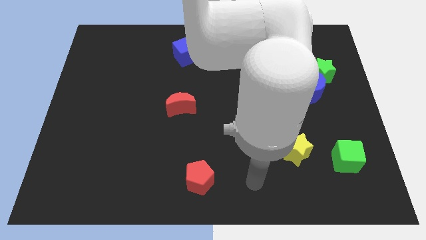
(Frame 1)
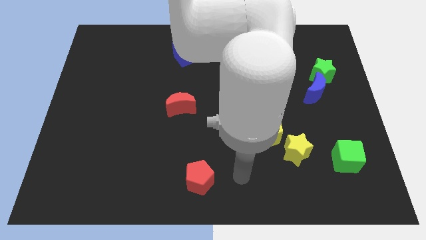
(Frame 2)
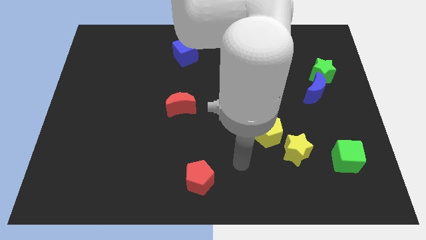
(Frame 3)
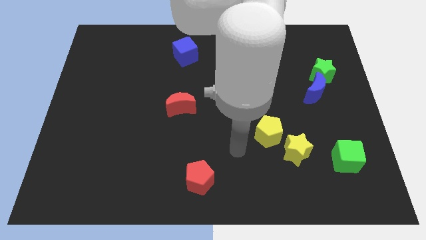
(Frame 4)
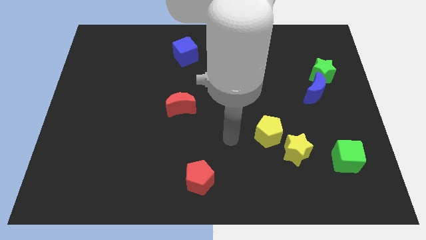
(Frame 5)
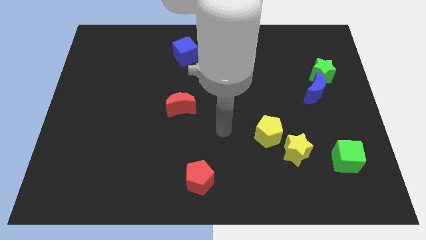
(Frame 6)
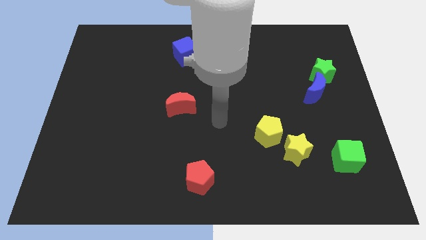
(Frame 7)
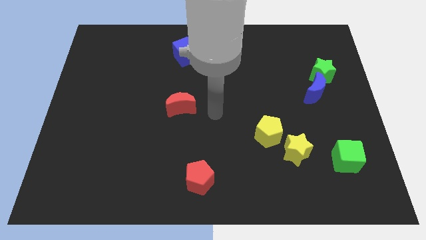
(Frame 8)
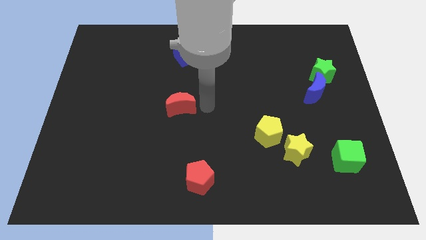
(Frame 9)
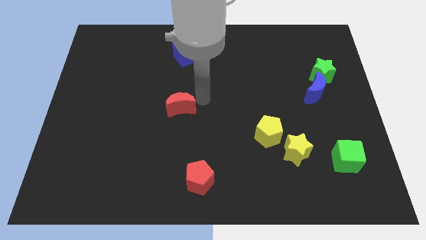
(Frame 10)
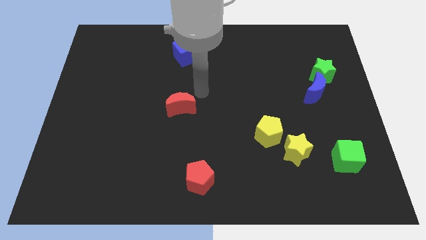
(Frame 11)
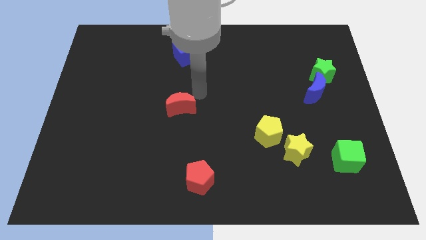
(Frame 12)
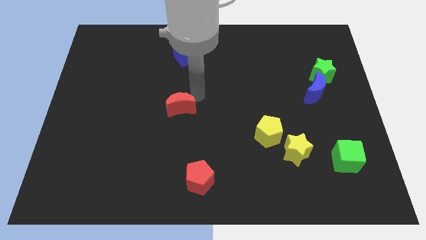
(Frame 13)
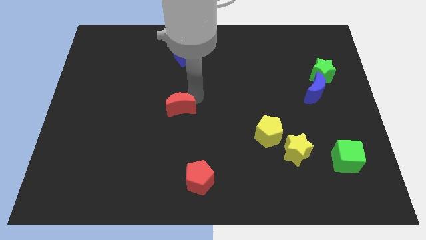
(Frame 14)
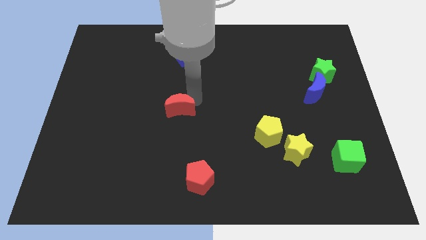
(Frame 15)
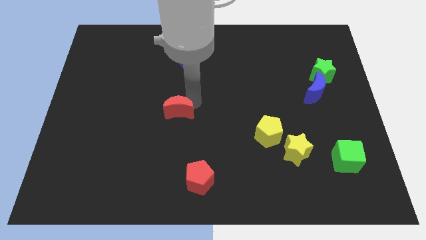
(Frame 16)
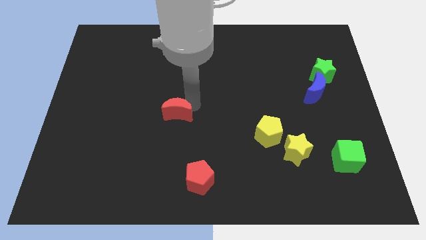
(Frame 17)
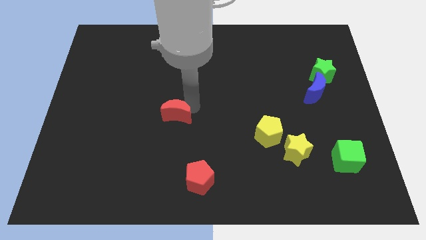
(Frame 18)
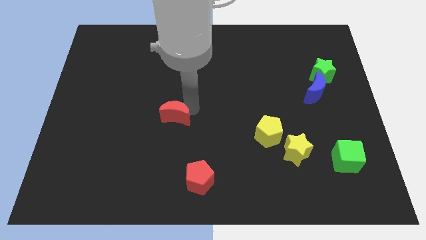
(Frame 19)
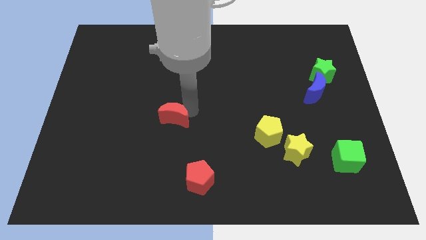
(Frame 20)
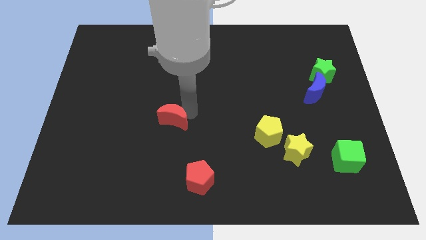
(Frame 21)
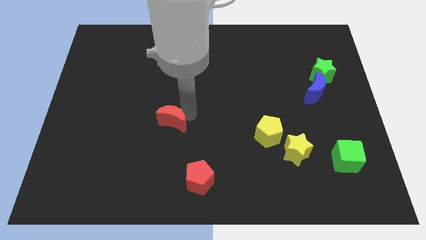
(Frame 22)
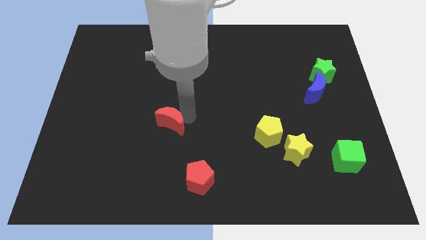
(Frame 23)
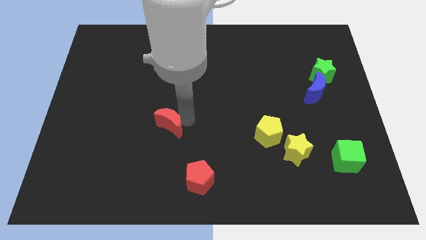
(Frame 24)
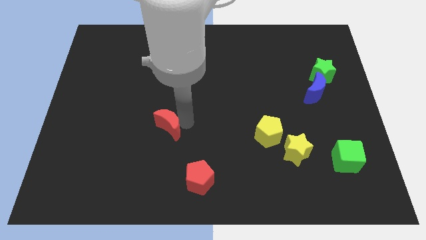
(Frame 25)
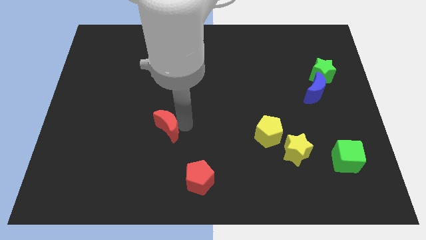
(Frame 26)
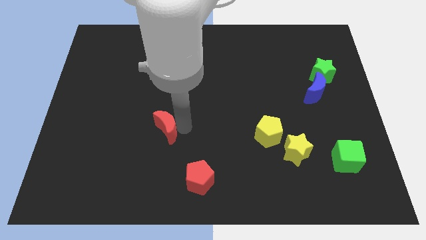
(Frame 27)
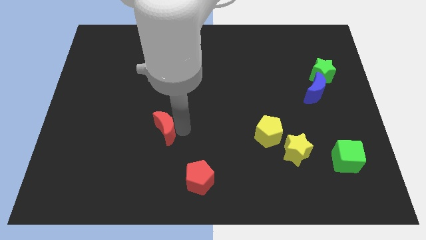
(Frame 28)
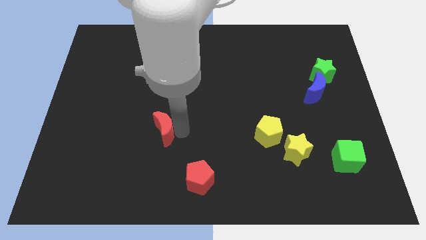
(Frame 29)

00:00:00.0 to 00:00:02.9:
push the red moon a little diagonally downwards and left

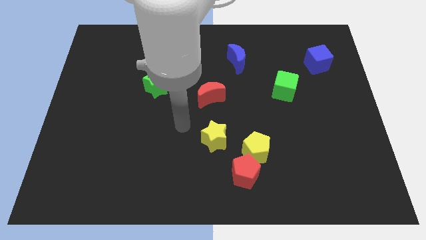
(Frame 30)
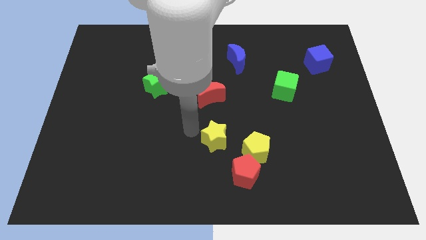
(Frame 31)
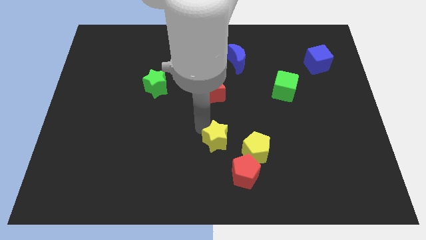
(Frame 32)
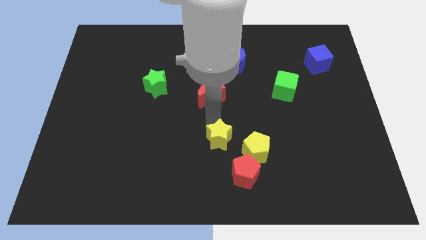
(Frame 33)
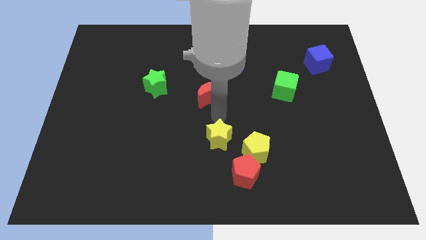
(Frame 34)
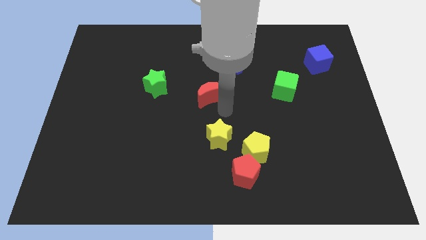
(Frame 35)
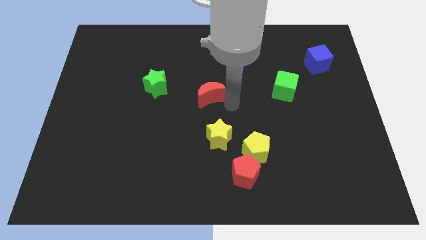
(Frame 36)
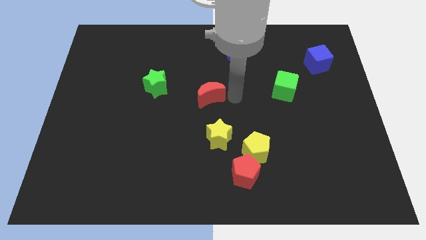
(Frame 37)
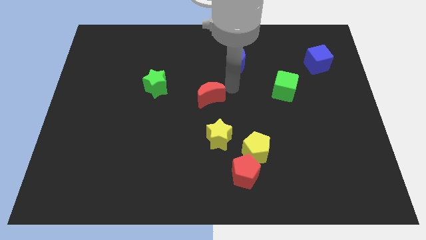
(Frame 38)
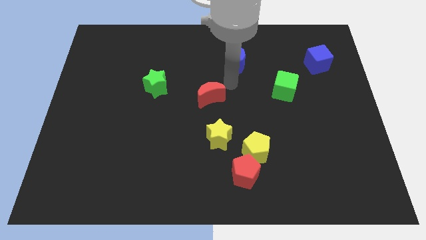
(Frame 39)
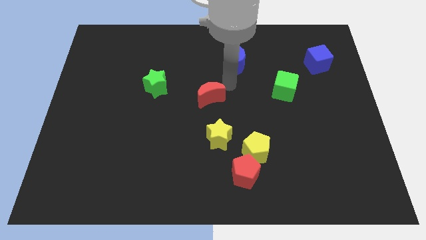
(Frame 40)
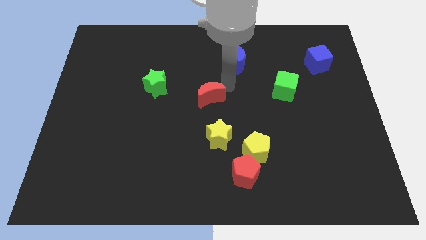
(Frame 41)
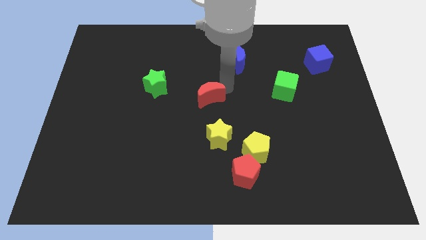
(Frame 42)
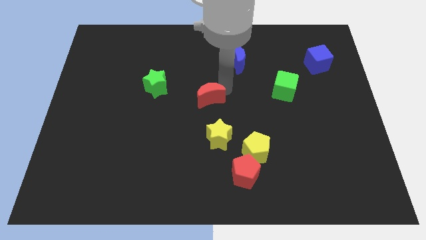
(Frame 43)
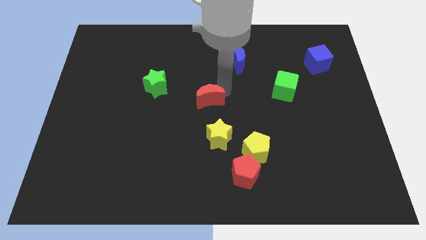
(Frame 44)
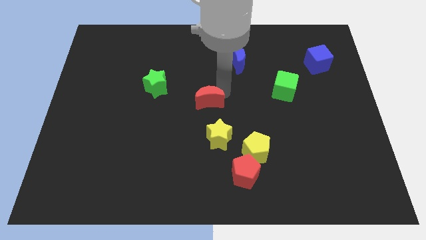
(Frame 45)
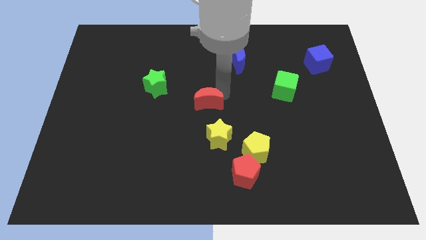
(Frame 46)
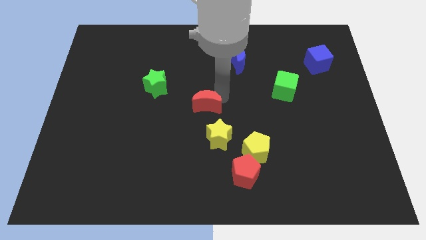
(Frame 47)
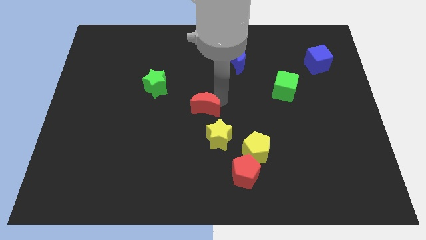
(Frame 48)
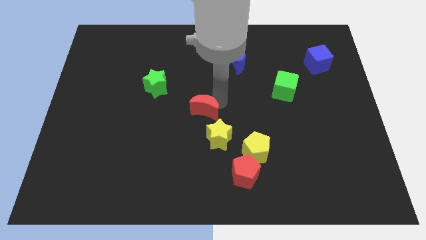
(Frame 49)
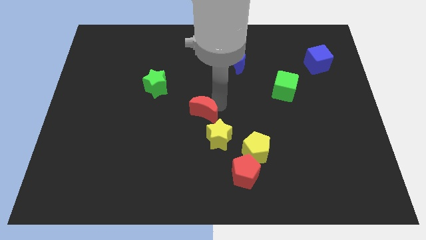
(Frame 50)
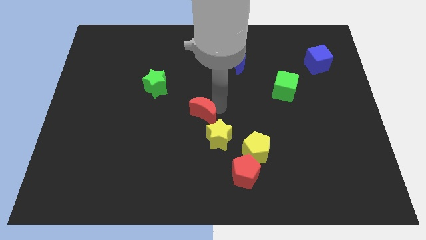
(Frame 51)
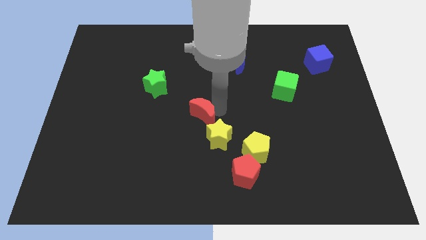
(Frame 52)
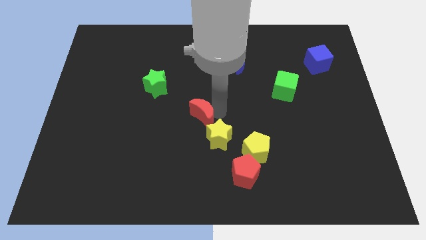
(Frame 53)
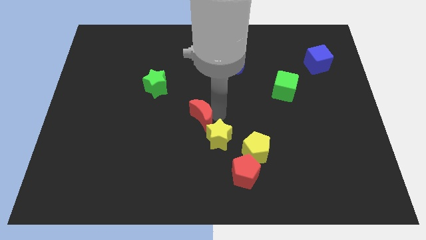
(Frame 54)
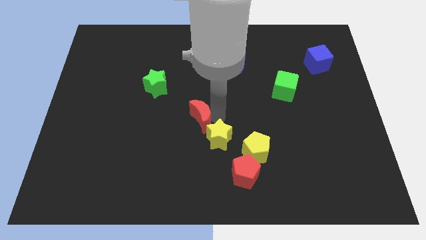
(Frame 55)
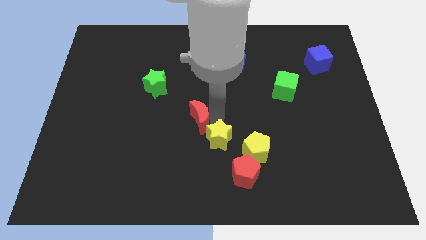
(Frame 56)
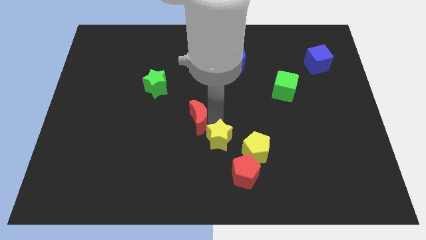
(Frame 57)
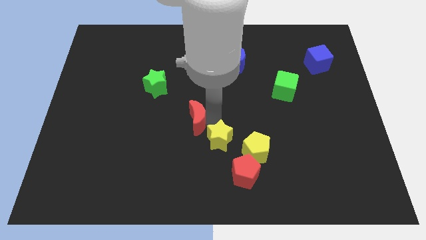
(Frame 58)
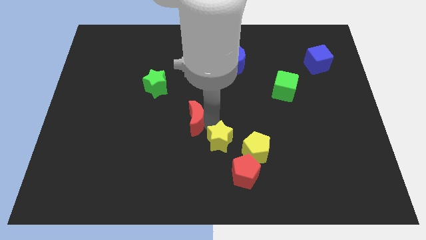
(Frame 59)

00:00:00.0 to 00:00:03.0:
slightly slide the red moon down and to the left

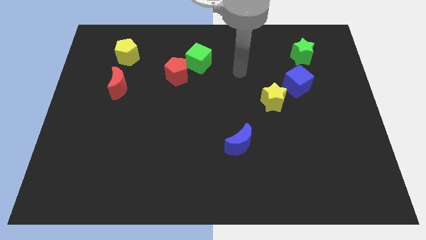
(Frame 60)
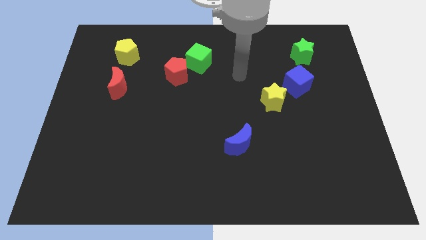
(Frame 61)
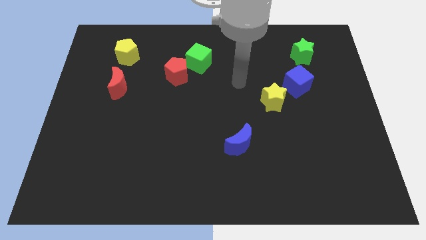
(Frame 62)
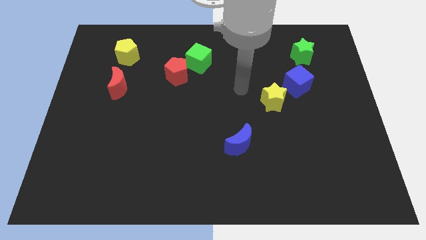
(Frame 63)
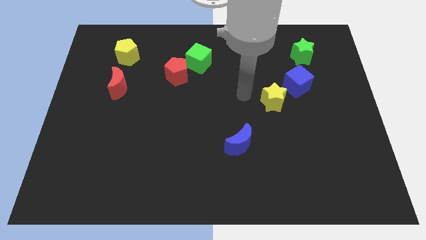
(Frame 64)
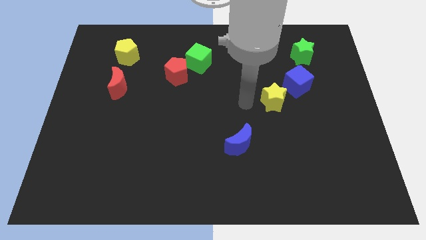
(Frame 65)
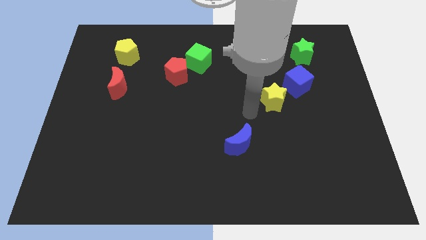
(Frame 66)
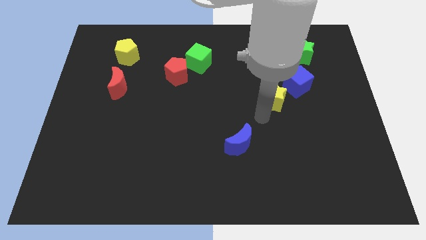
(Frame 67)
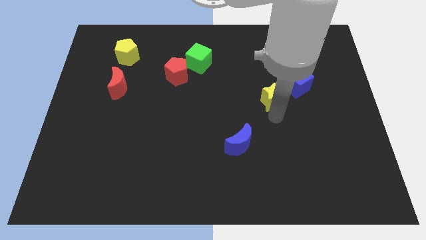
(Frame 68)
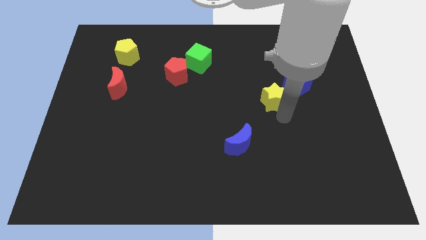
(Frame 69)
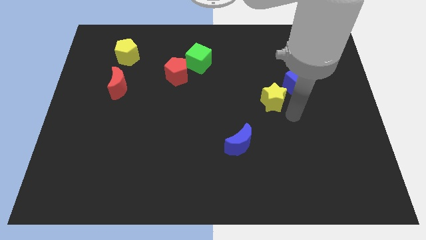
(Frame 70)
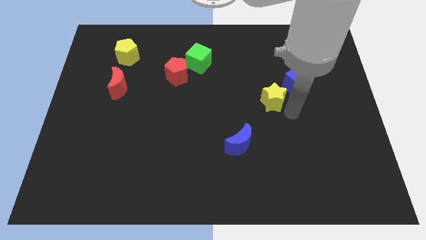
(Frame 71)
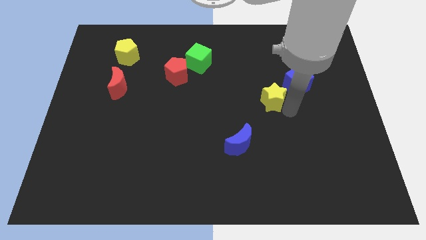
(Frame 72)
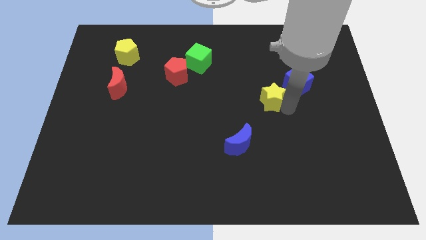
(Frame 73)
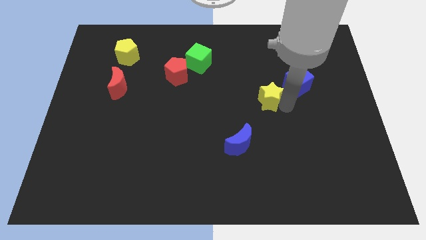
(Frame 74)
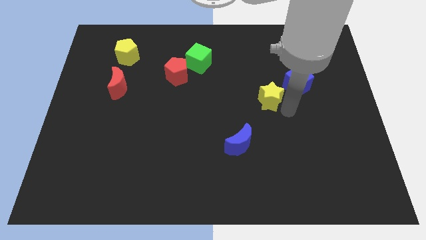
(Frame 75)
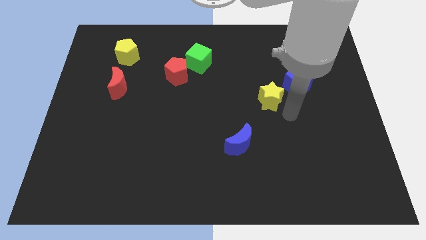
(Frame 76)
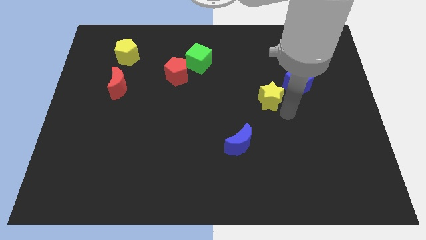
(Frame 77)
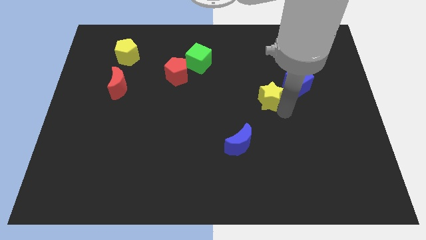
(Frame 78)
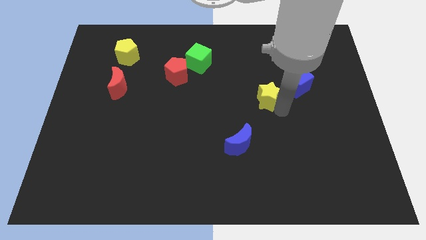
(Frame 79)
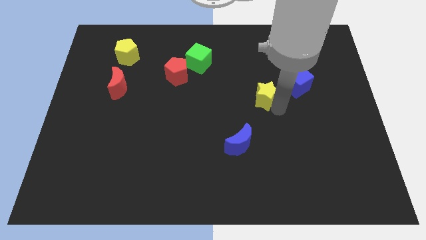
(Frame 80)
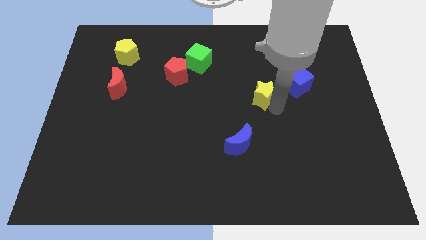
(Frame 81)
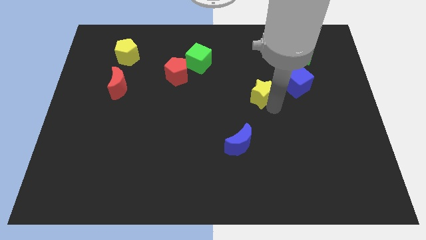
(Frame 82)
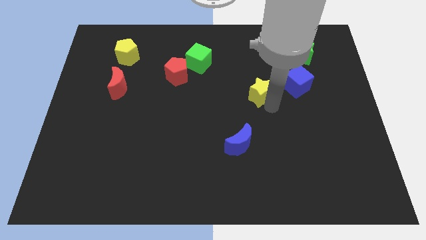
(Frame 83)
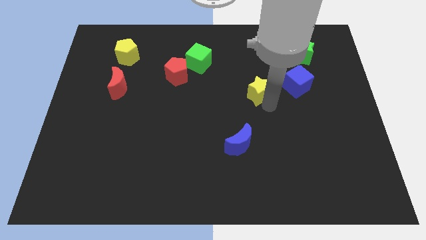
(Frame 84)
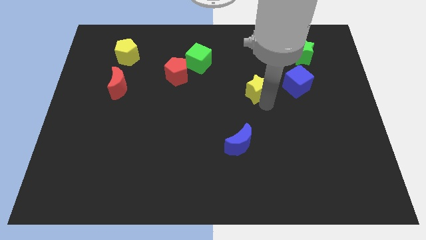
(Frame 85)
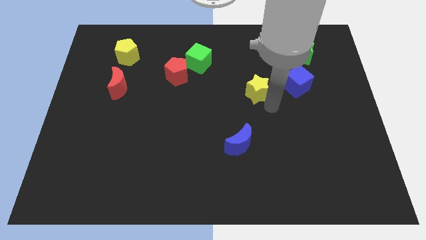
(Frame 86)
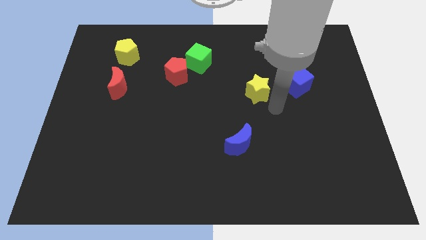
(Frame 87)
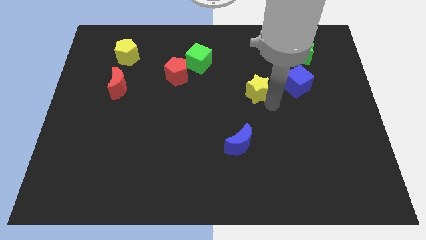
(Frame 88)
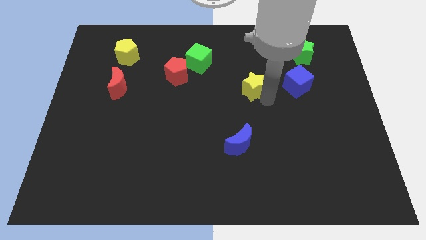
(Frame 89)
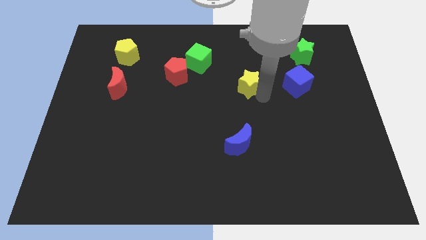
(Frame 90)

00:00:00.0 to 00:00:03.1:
push the yellow star upwards and to the left diagonally a little
